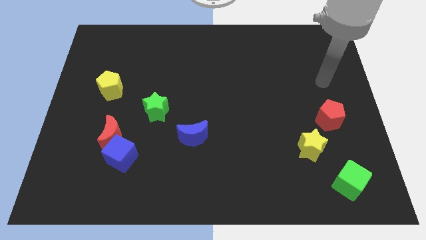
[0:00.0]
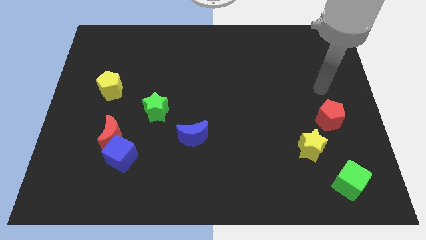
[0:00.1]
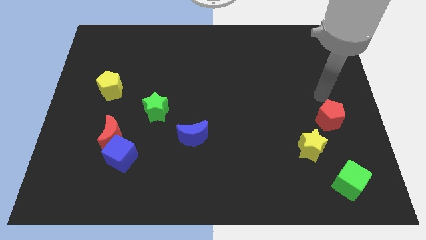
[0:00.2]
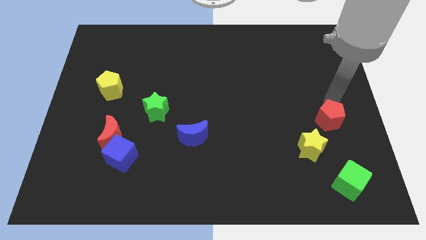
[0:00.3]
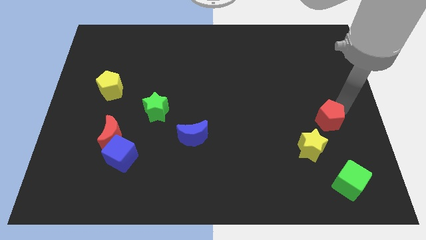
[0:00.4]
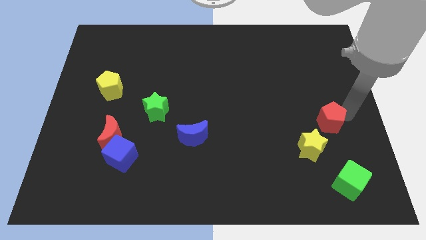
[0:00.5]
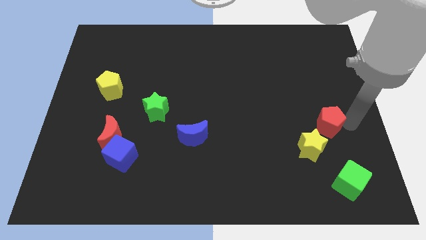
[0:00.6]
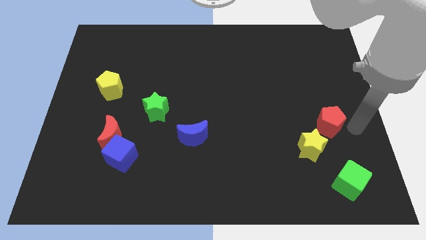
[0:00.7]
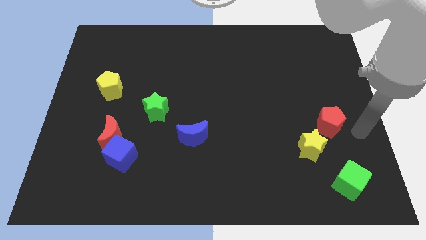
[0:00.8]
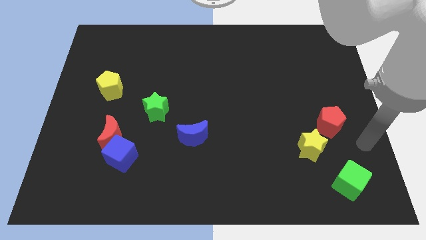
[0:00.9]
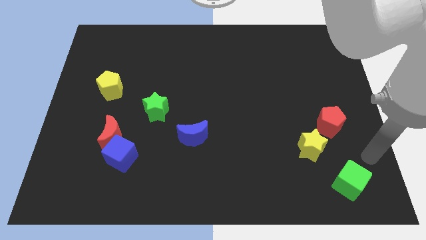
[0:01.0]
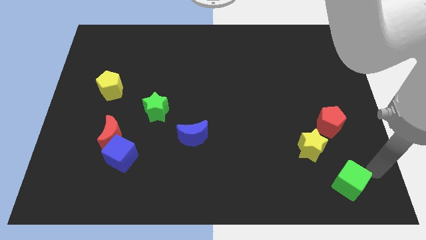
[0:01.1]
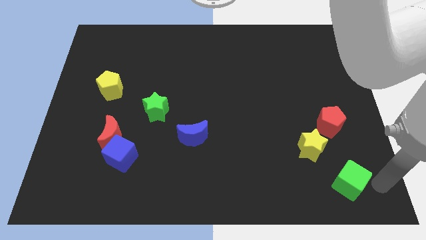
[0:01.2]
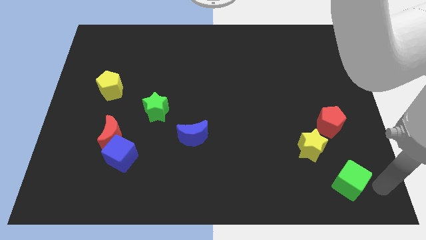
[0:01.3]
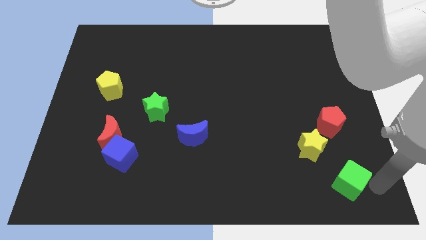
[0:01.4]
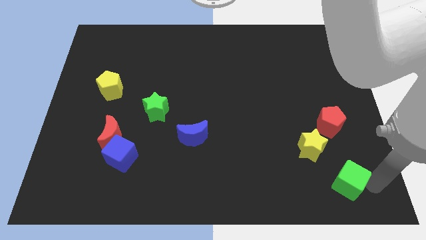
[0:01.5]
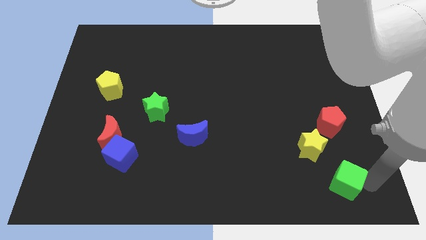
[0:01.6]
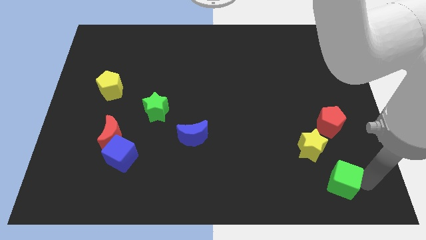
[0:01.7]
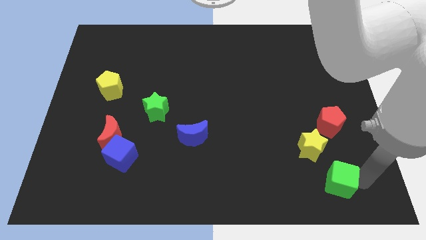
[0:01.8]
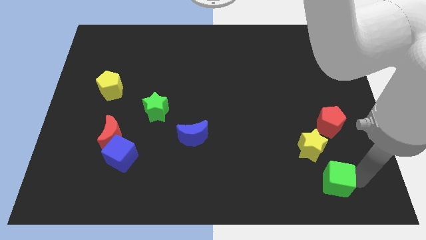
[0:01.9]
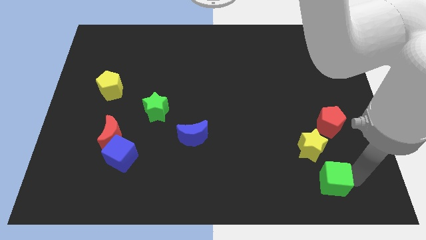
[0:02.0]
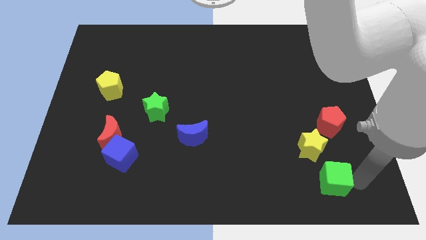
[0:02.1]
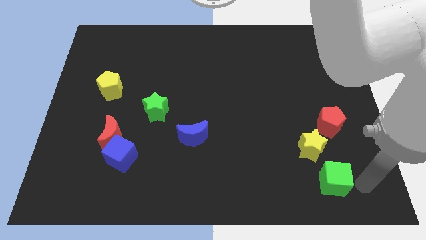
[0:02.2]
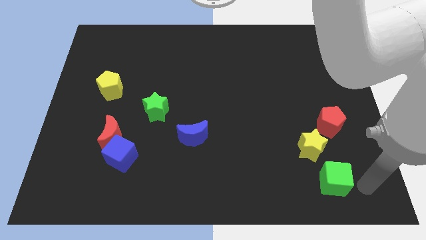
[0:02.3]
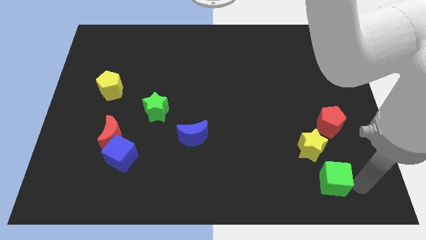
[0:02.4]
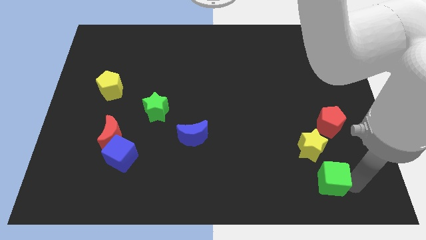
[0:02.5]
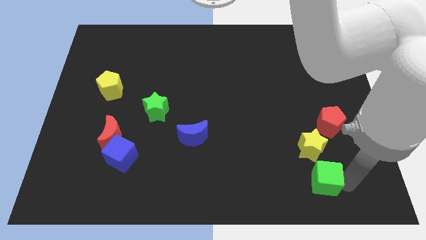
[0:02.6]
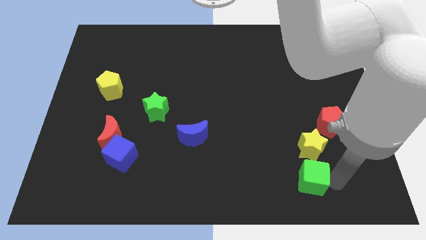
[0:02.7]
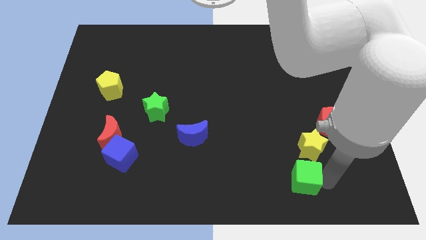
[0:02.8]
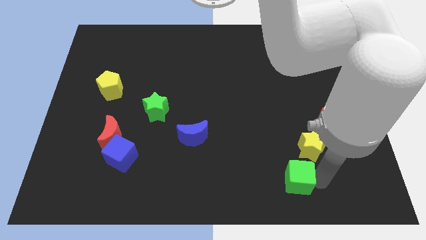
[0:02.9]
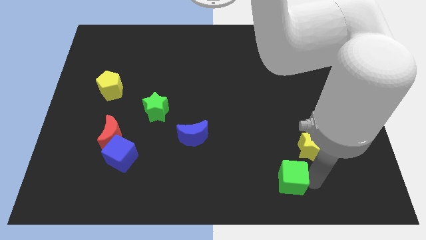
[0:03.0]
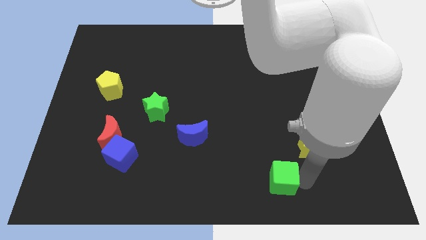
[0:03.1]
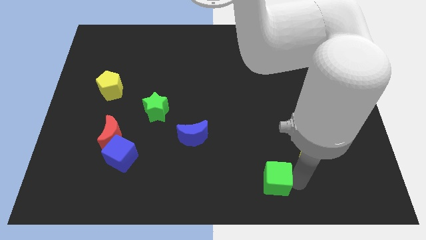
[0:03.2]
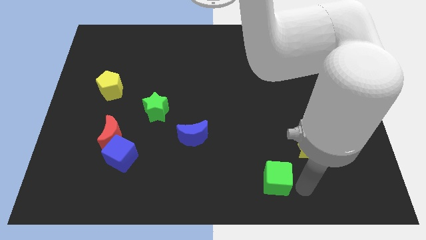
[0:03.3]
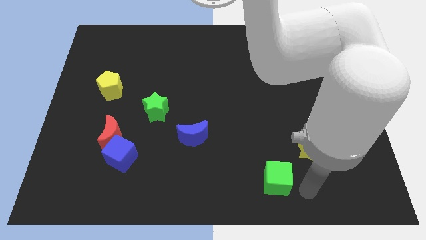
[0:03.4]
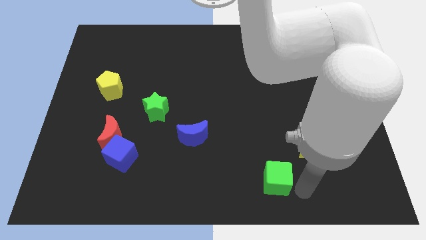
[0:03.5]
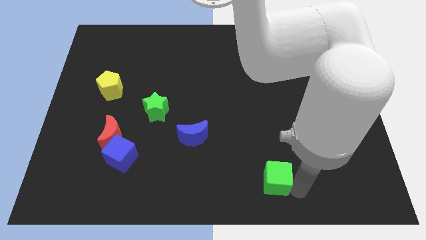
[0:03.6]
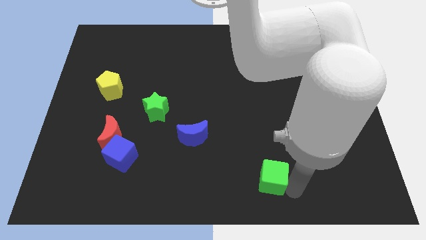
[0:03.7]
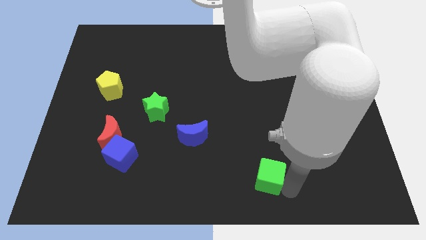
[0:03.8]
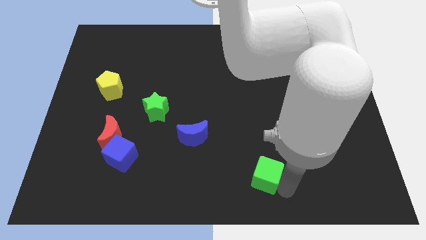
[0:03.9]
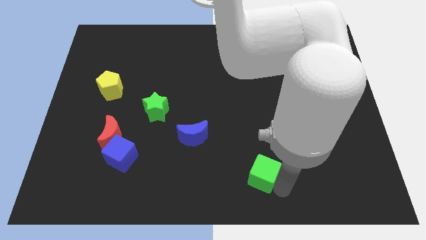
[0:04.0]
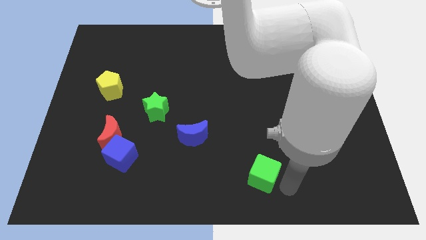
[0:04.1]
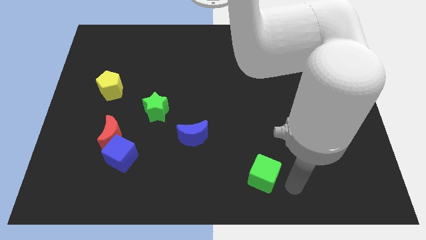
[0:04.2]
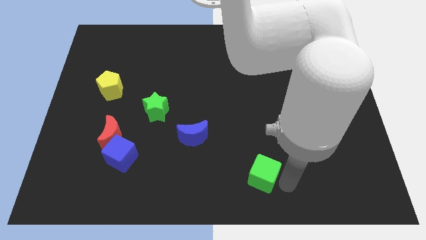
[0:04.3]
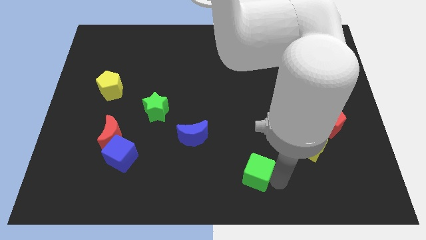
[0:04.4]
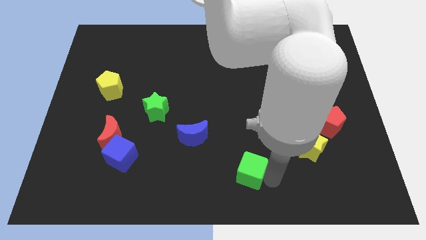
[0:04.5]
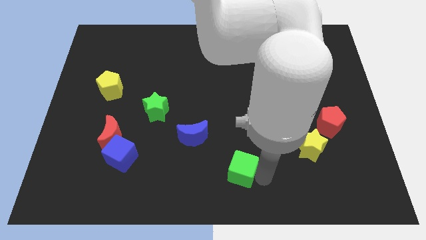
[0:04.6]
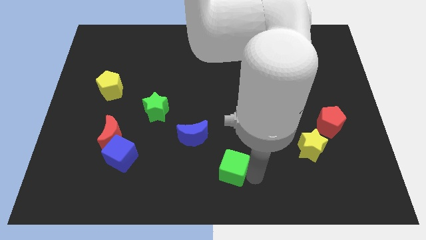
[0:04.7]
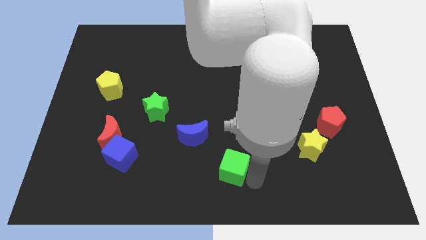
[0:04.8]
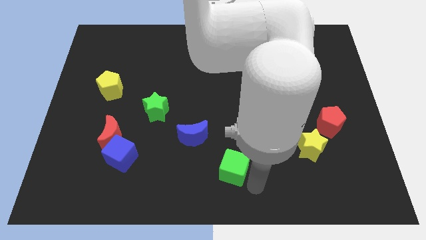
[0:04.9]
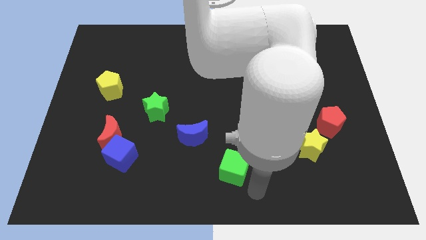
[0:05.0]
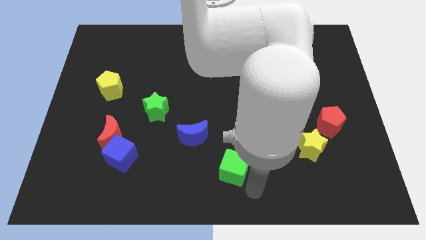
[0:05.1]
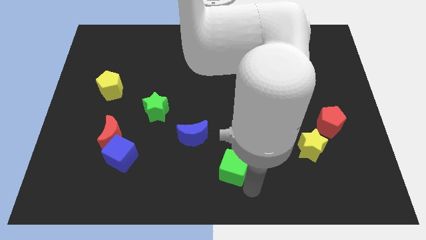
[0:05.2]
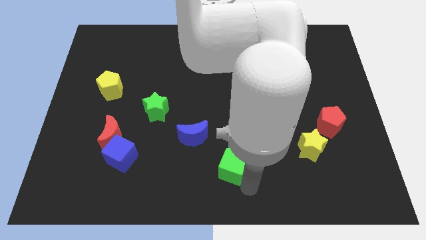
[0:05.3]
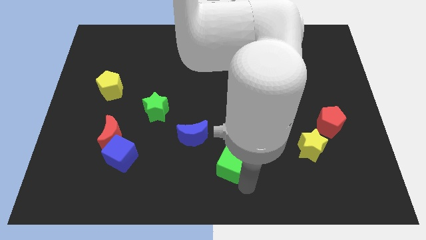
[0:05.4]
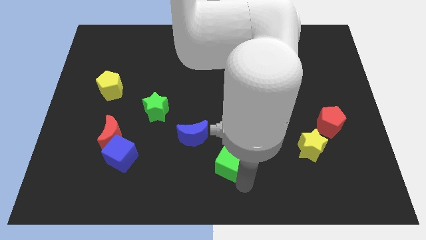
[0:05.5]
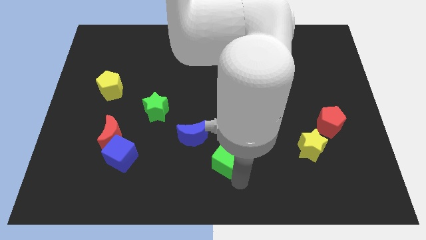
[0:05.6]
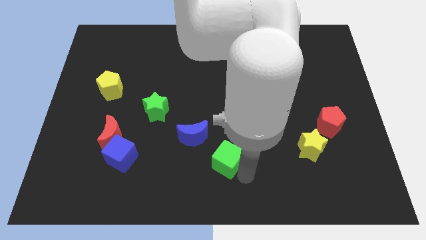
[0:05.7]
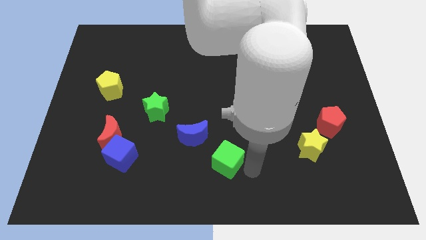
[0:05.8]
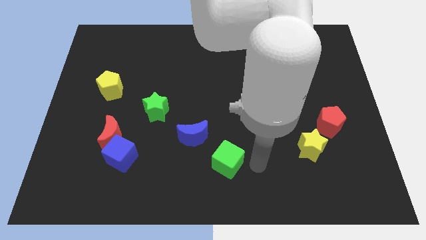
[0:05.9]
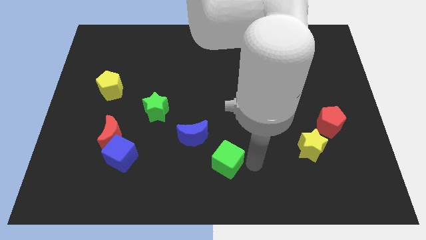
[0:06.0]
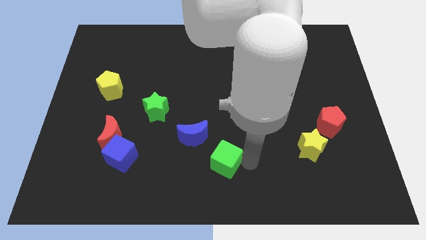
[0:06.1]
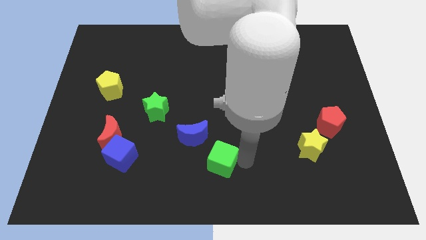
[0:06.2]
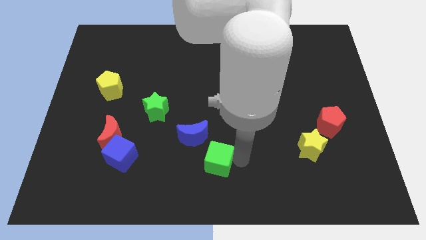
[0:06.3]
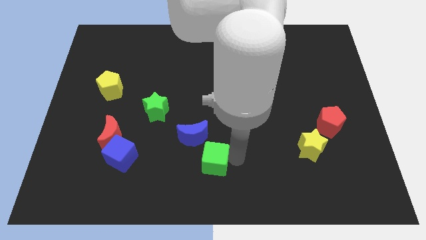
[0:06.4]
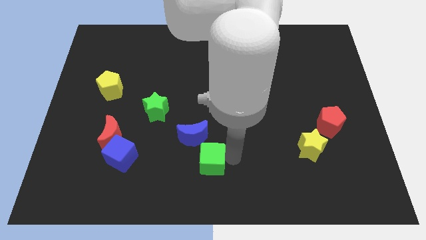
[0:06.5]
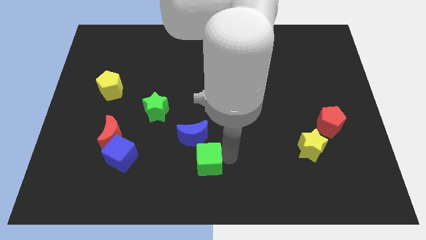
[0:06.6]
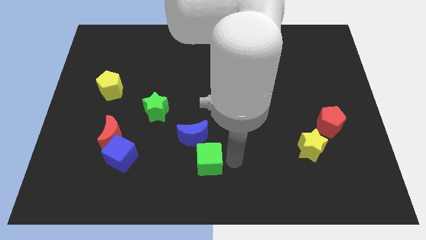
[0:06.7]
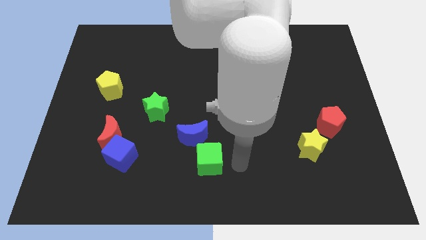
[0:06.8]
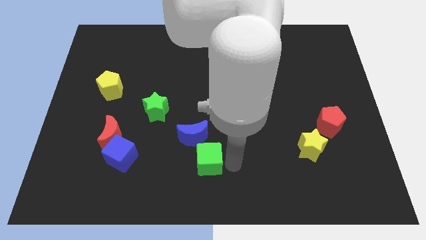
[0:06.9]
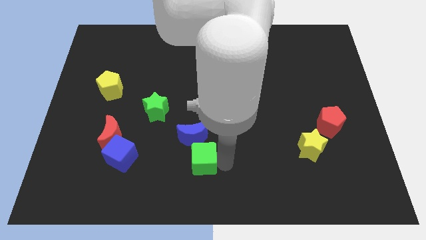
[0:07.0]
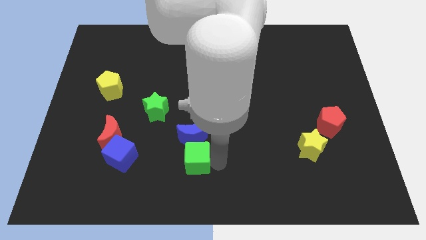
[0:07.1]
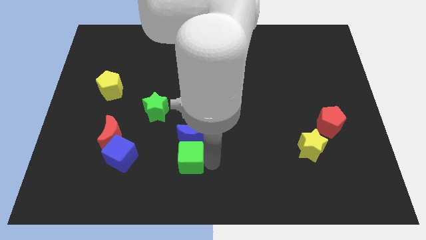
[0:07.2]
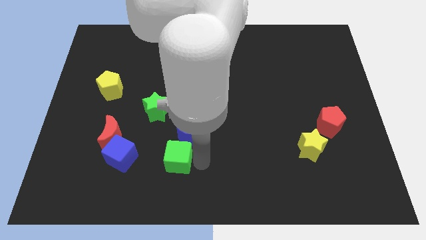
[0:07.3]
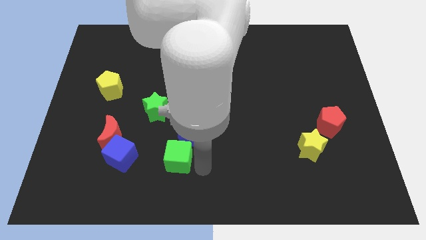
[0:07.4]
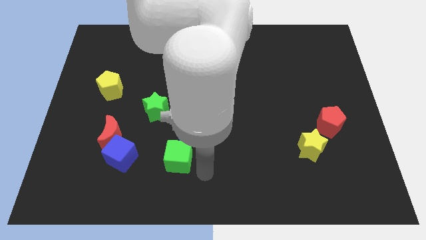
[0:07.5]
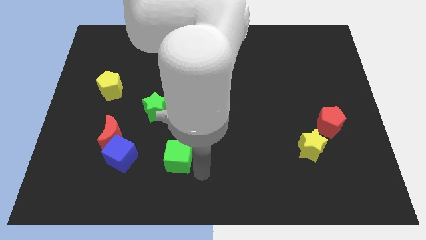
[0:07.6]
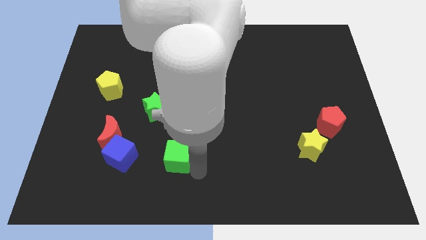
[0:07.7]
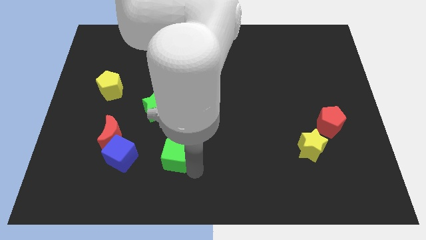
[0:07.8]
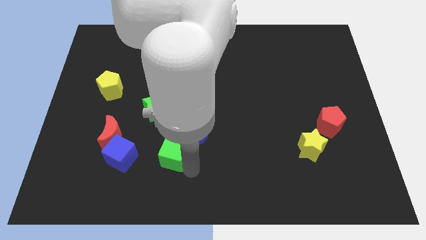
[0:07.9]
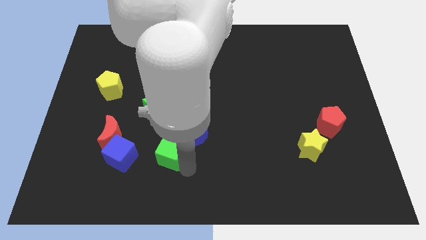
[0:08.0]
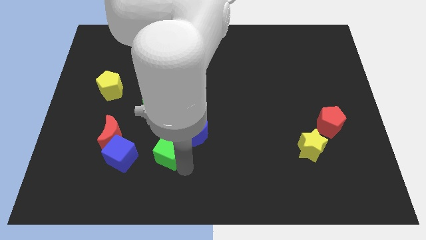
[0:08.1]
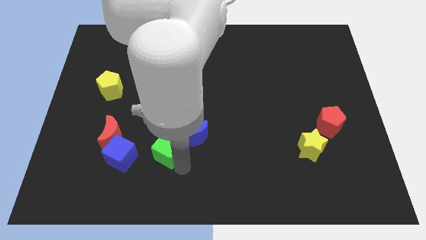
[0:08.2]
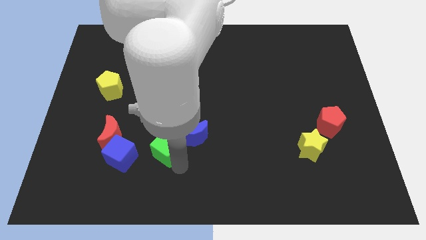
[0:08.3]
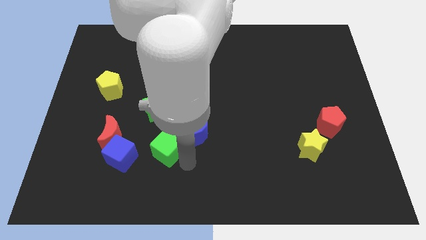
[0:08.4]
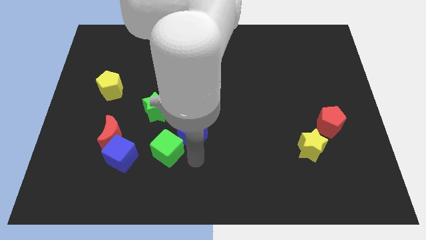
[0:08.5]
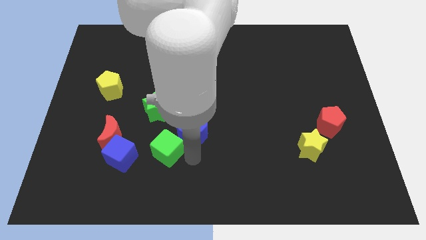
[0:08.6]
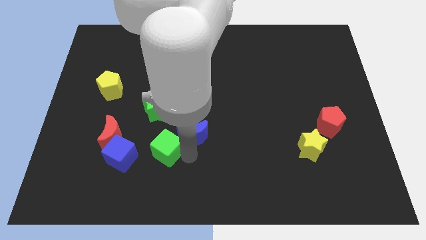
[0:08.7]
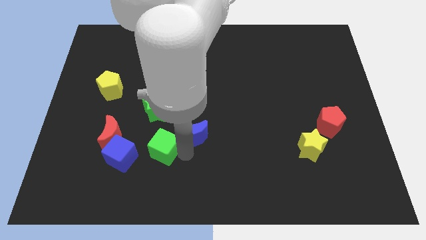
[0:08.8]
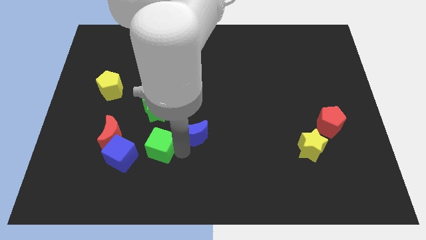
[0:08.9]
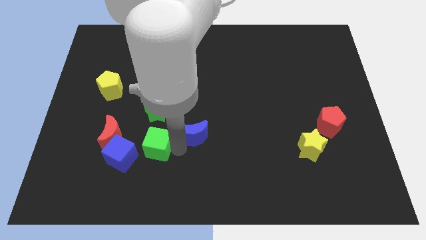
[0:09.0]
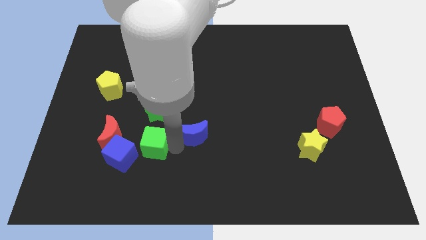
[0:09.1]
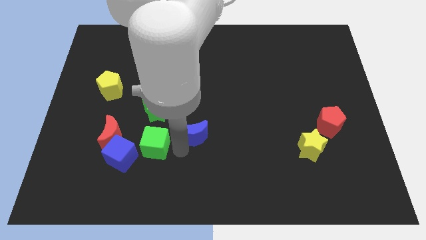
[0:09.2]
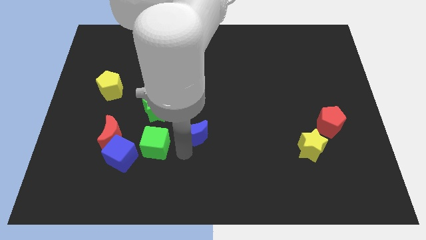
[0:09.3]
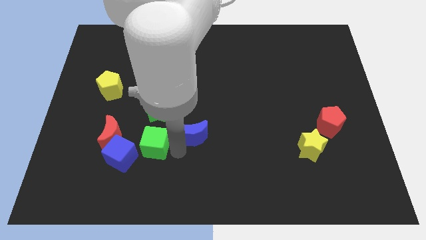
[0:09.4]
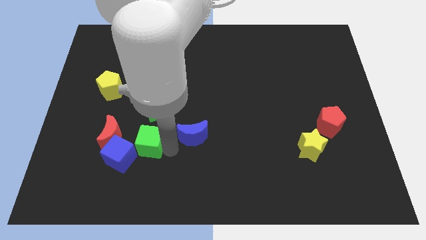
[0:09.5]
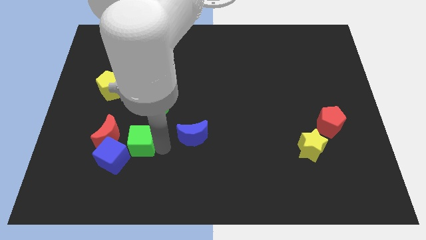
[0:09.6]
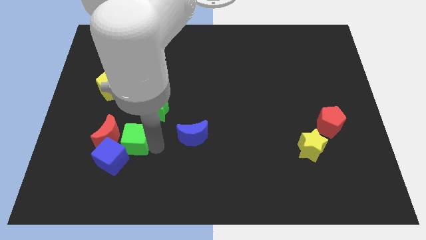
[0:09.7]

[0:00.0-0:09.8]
push the green cube to the red moon
